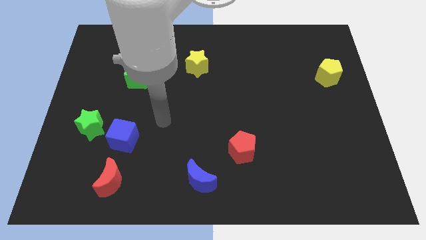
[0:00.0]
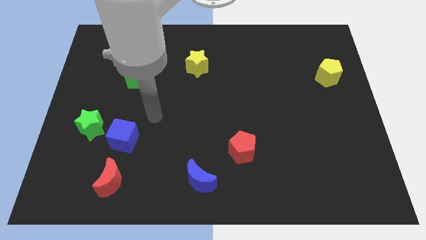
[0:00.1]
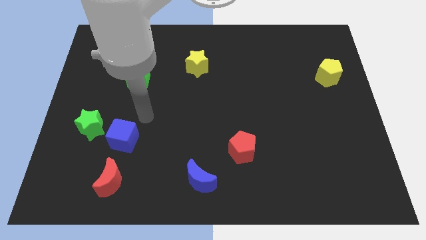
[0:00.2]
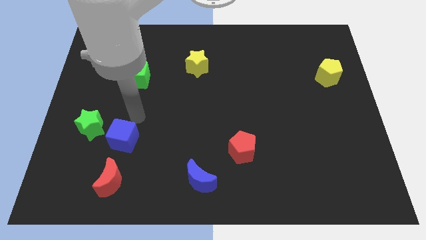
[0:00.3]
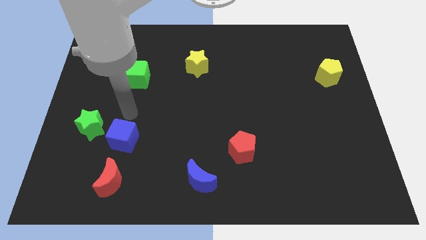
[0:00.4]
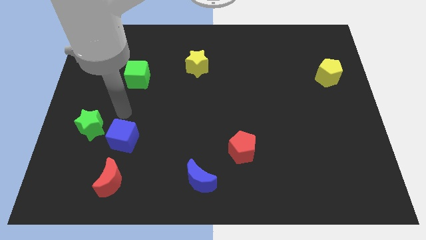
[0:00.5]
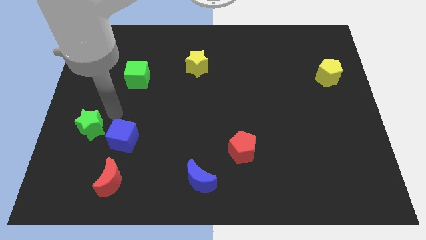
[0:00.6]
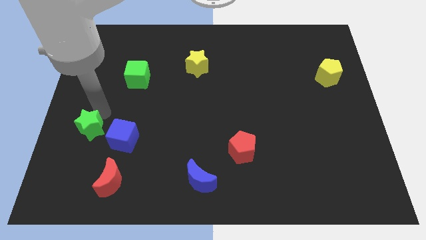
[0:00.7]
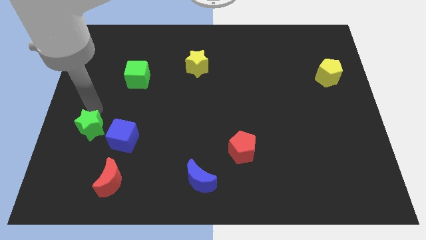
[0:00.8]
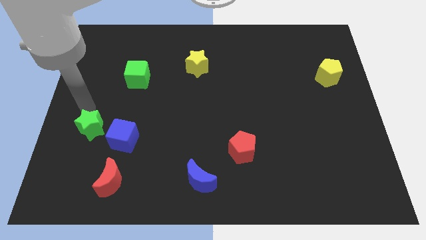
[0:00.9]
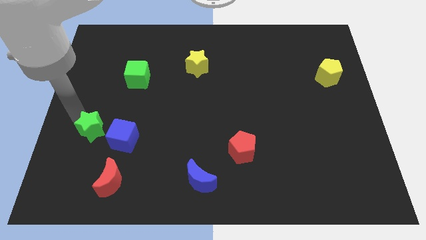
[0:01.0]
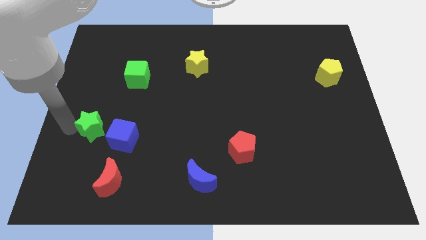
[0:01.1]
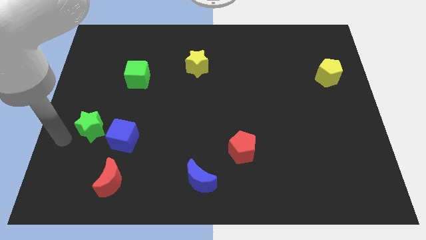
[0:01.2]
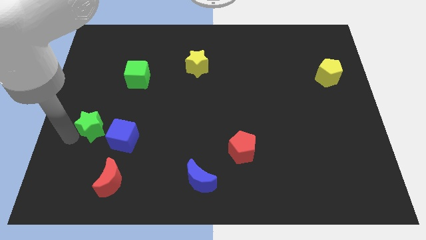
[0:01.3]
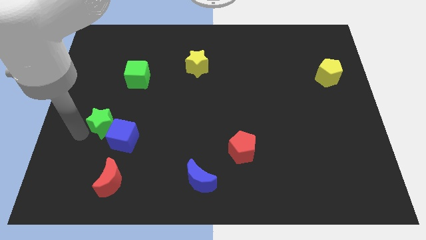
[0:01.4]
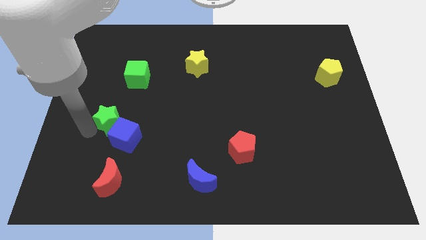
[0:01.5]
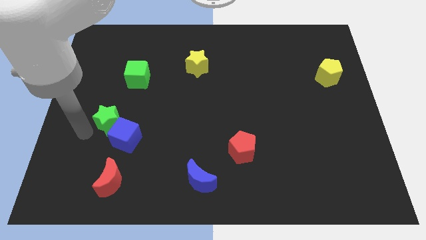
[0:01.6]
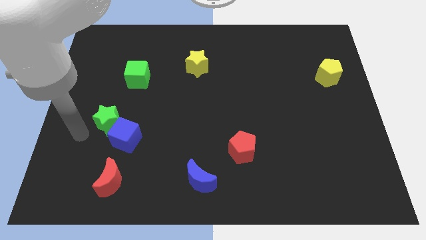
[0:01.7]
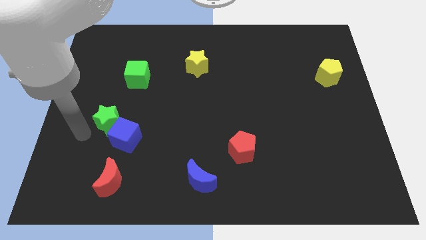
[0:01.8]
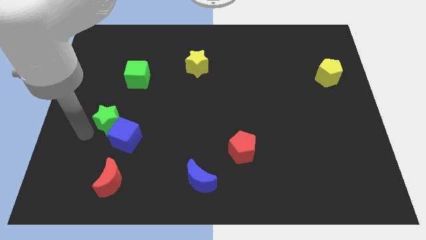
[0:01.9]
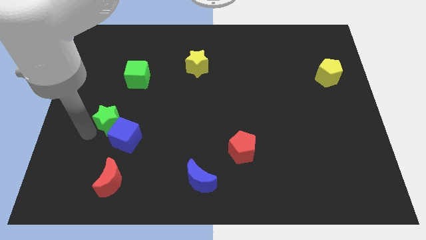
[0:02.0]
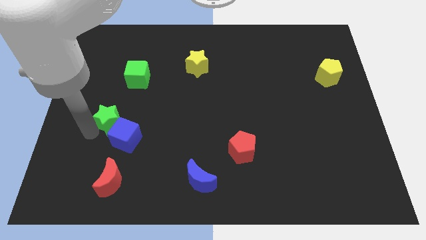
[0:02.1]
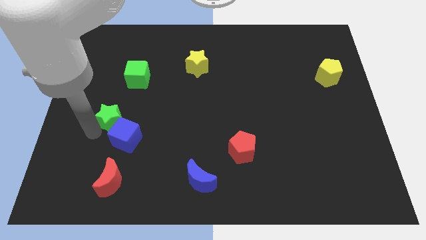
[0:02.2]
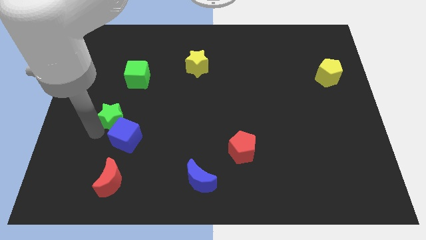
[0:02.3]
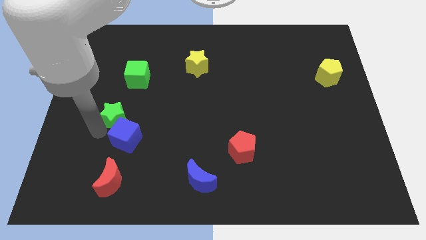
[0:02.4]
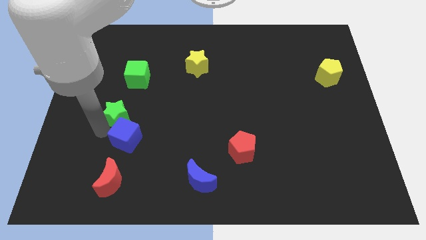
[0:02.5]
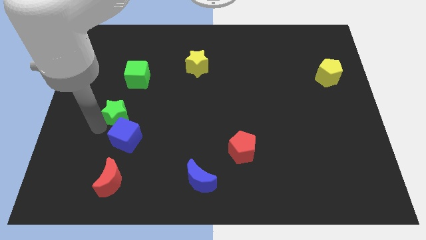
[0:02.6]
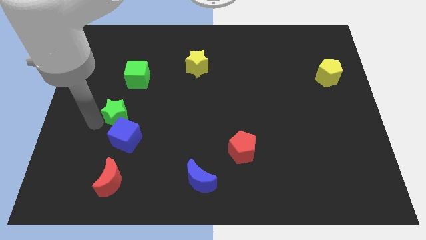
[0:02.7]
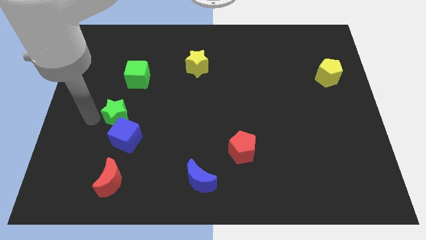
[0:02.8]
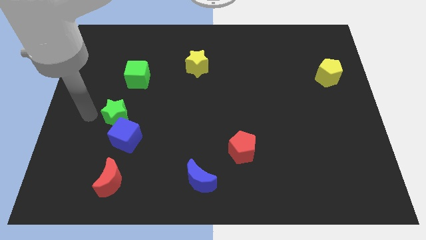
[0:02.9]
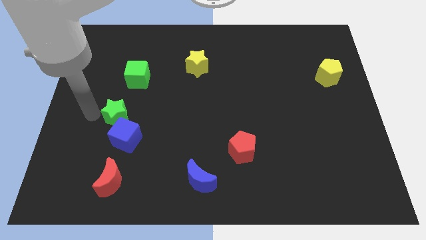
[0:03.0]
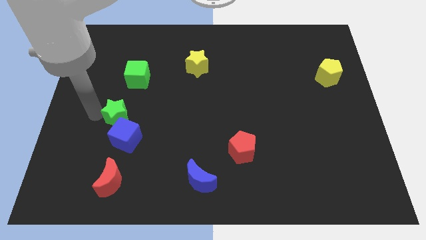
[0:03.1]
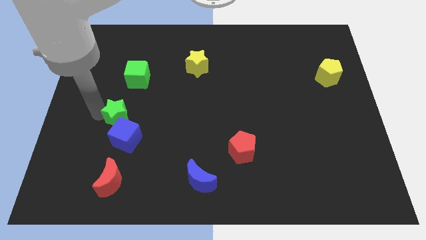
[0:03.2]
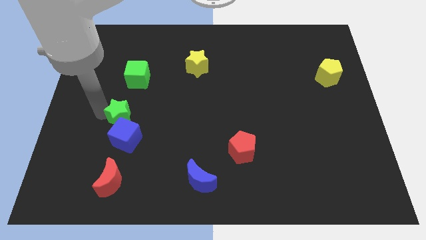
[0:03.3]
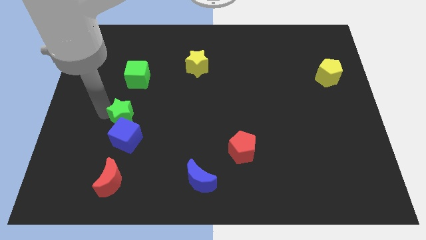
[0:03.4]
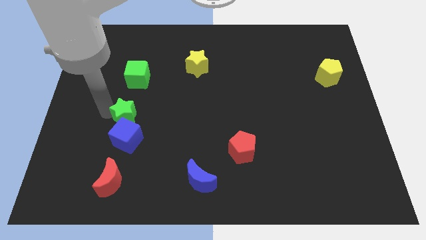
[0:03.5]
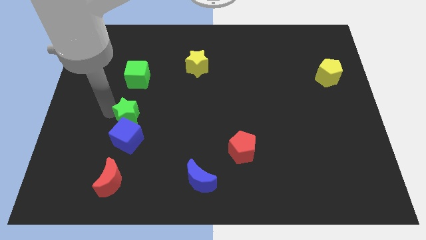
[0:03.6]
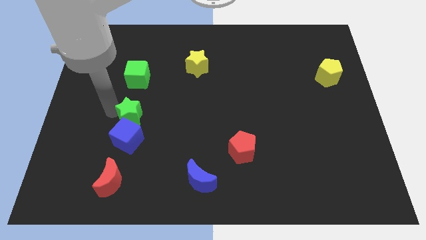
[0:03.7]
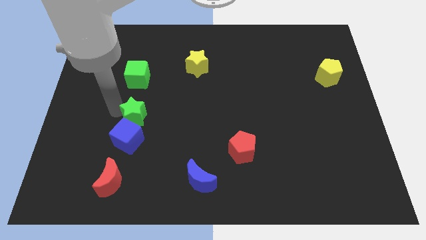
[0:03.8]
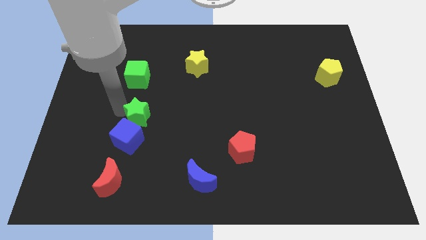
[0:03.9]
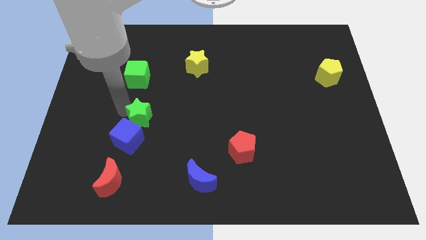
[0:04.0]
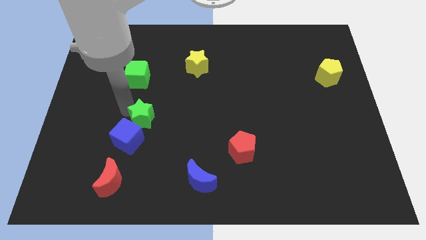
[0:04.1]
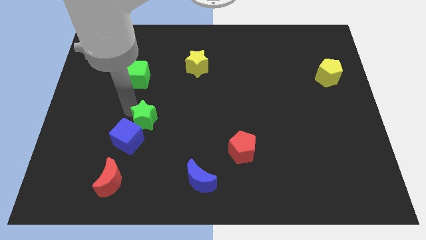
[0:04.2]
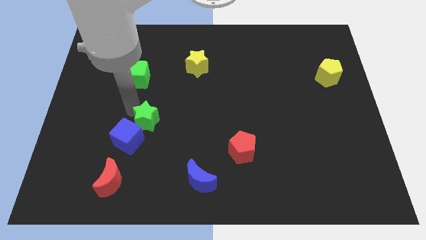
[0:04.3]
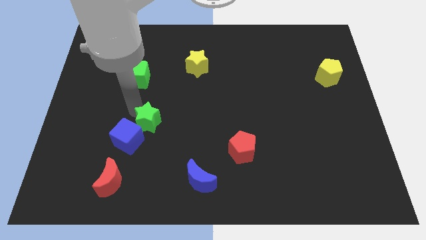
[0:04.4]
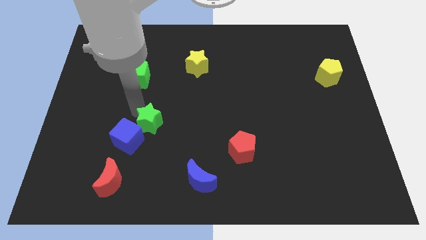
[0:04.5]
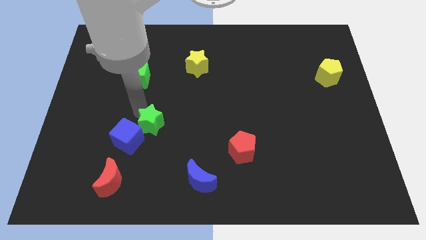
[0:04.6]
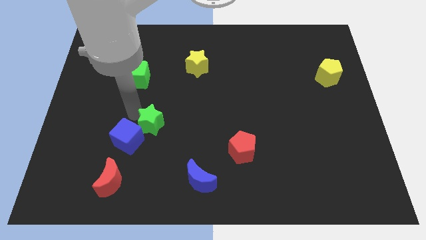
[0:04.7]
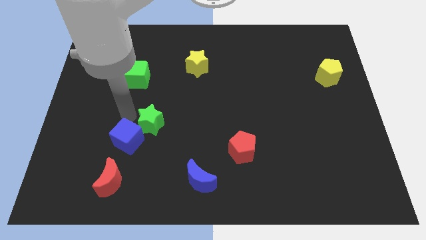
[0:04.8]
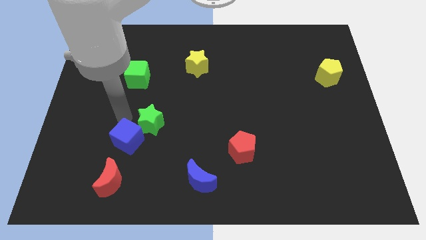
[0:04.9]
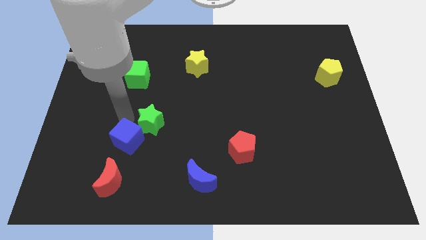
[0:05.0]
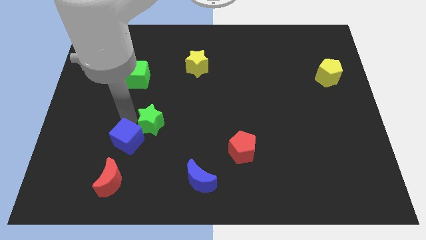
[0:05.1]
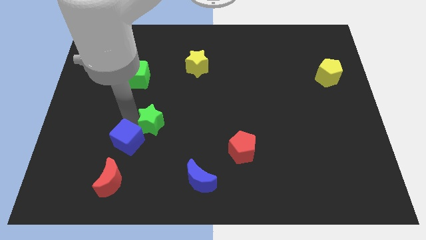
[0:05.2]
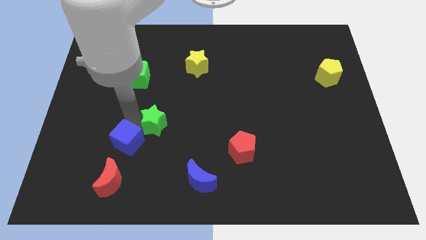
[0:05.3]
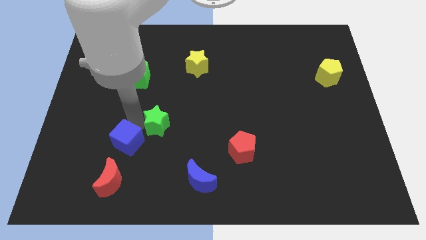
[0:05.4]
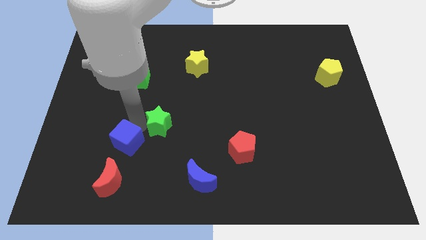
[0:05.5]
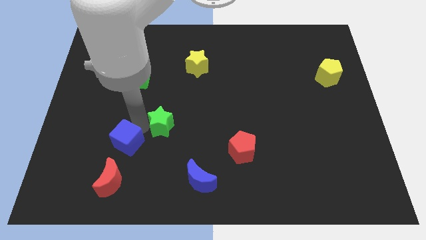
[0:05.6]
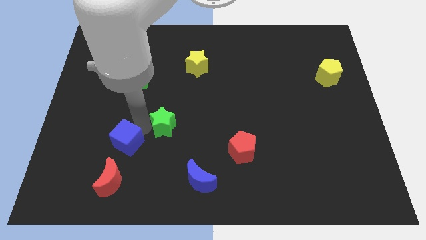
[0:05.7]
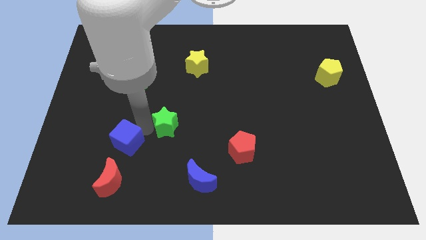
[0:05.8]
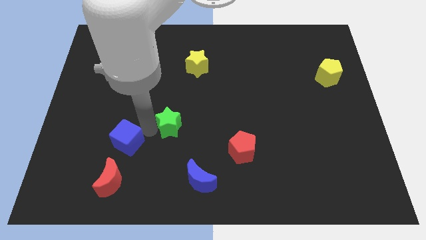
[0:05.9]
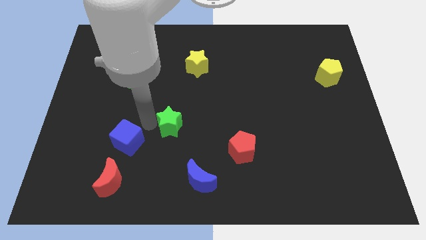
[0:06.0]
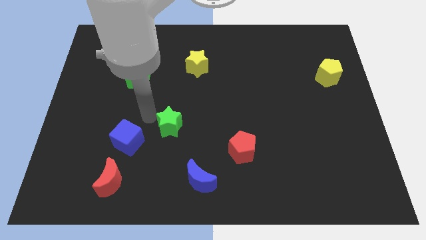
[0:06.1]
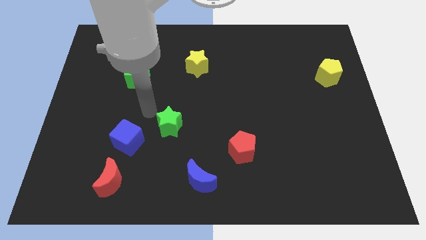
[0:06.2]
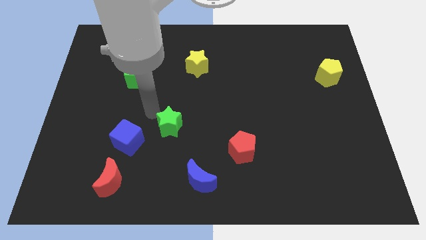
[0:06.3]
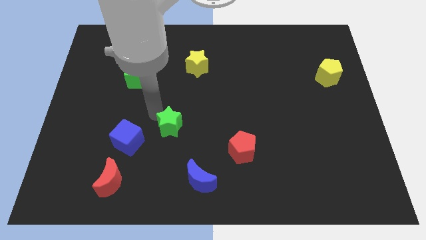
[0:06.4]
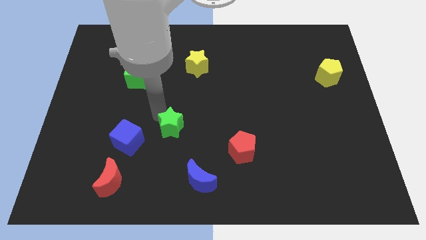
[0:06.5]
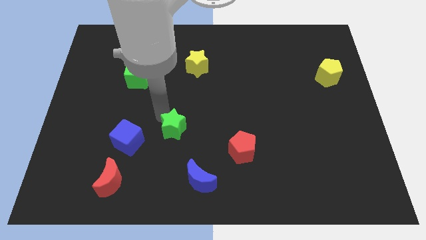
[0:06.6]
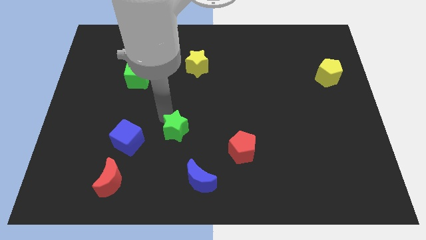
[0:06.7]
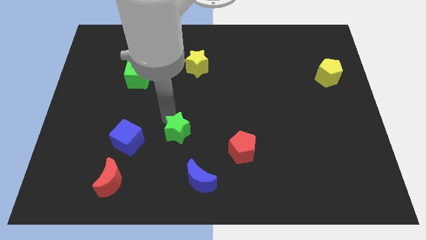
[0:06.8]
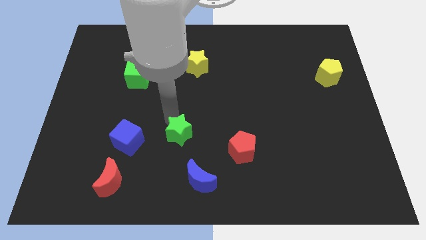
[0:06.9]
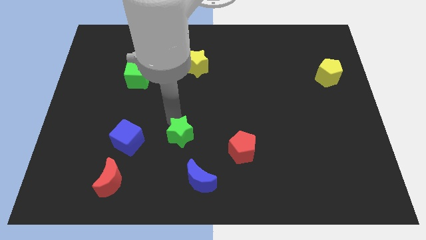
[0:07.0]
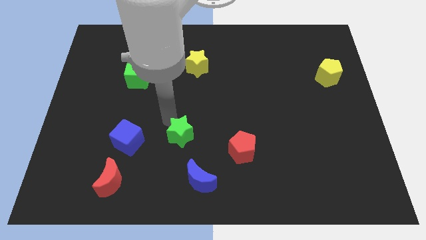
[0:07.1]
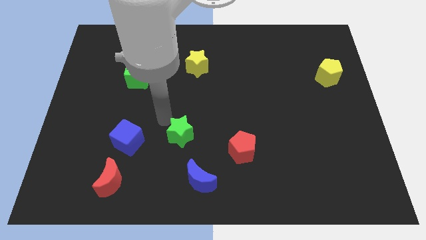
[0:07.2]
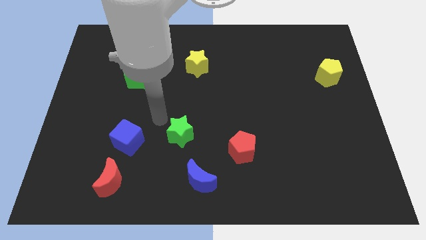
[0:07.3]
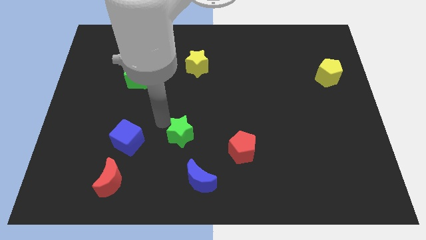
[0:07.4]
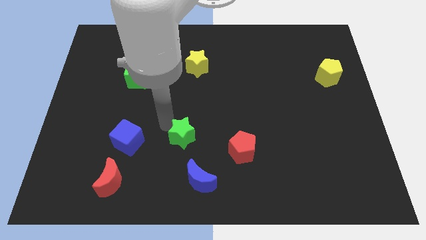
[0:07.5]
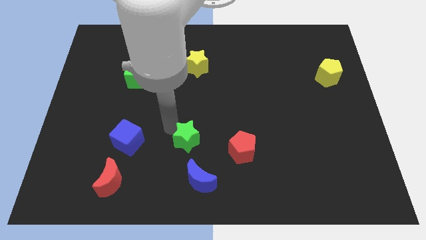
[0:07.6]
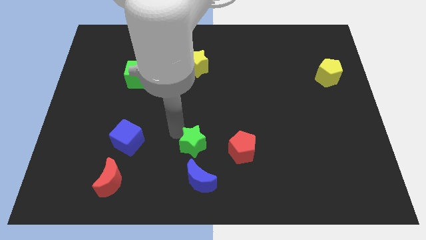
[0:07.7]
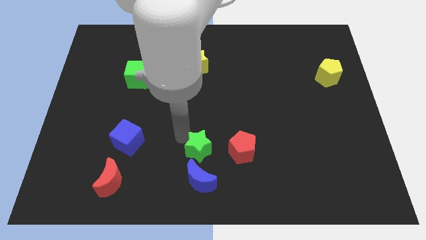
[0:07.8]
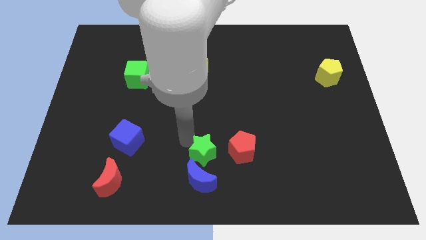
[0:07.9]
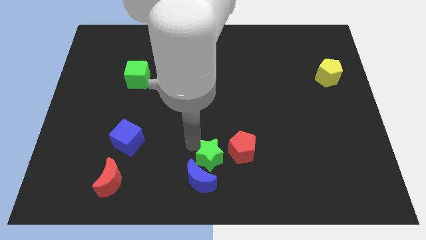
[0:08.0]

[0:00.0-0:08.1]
put the green star to the bottom left of the red pentagon
